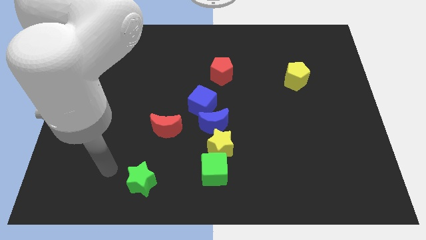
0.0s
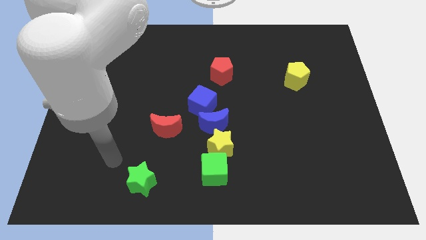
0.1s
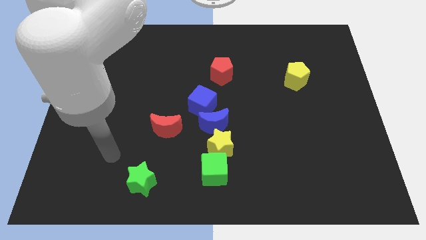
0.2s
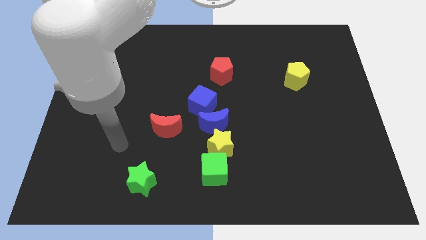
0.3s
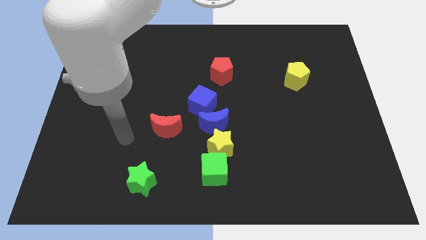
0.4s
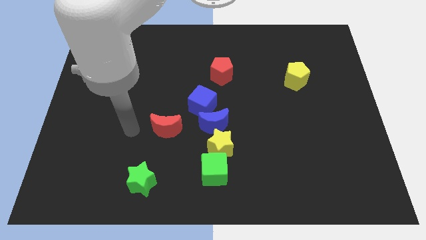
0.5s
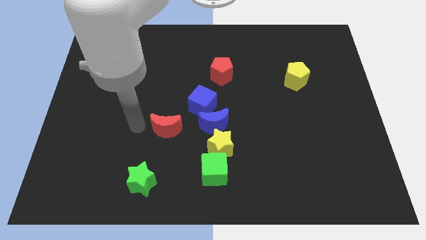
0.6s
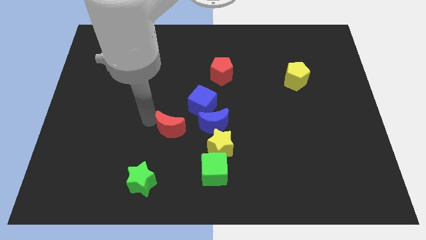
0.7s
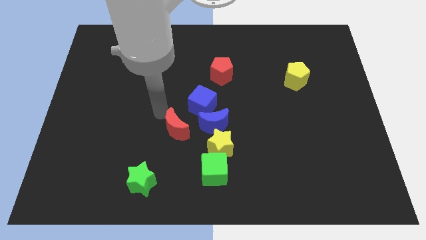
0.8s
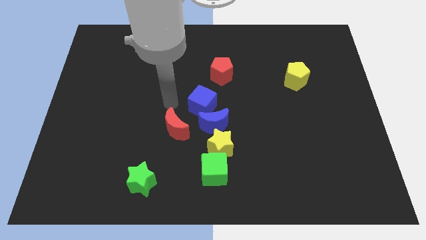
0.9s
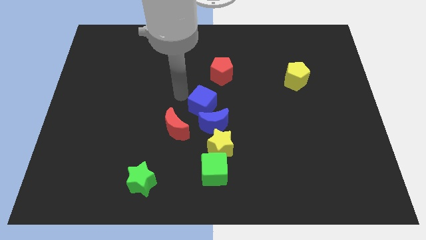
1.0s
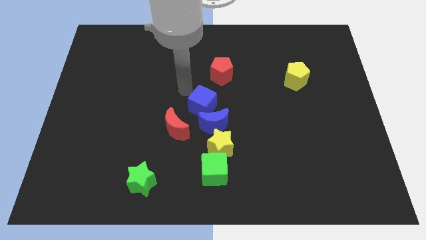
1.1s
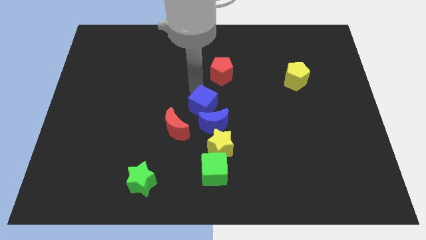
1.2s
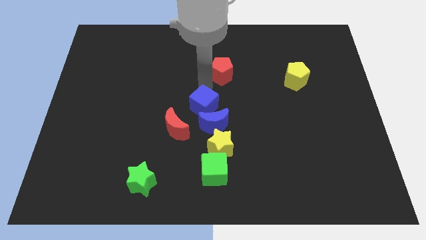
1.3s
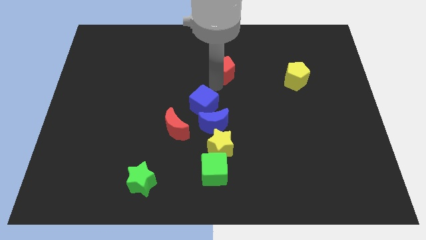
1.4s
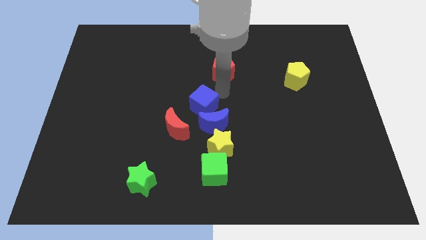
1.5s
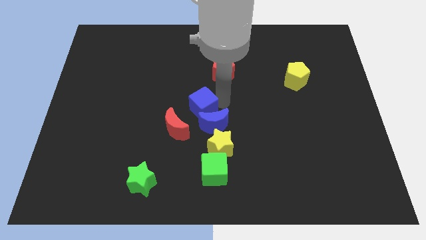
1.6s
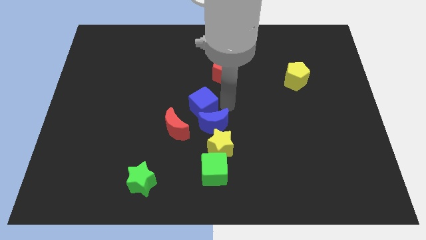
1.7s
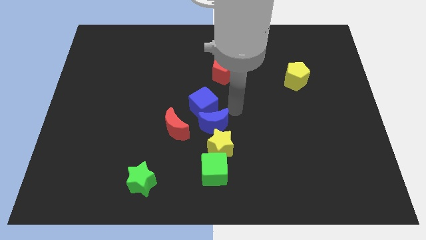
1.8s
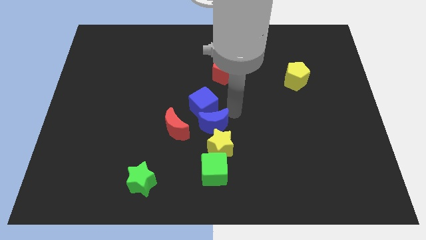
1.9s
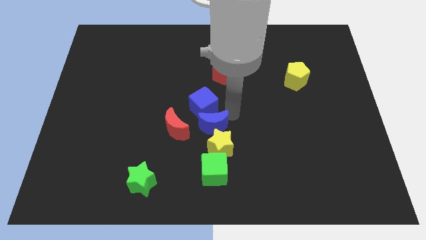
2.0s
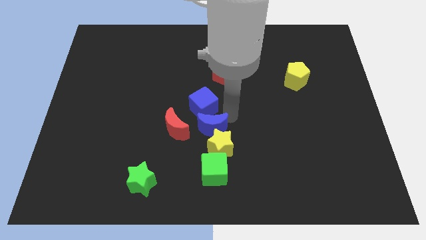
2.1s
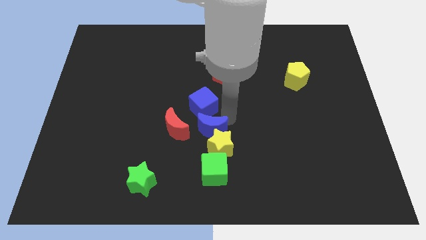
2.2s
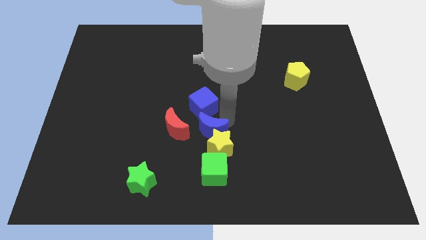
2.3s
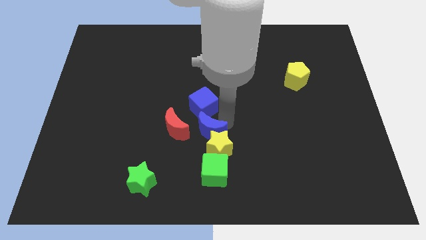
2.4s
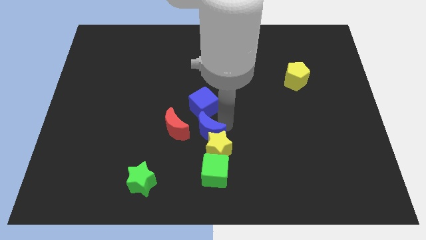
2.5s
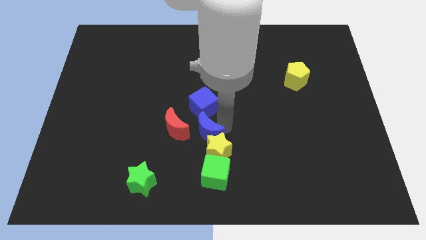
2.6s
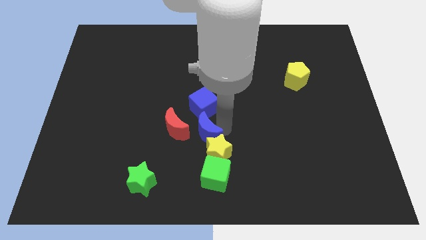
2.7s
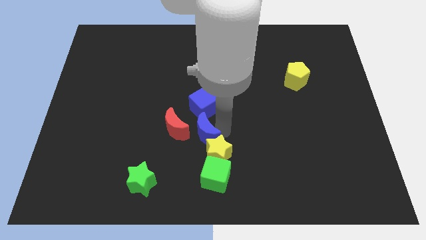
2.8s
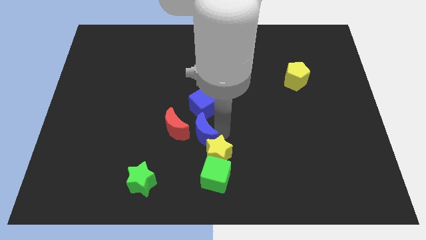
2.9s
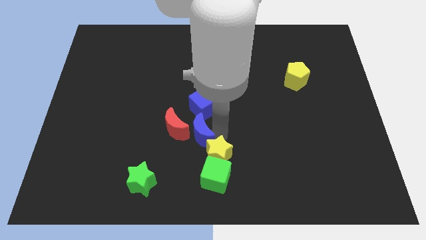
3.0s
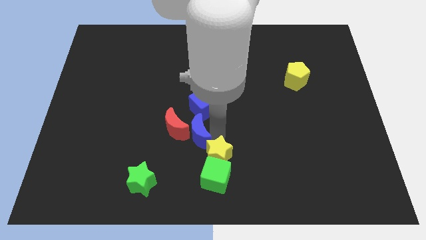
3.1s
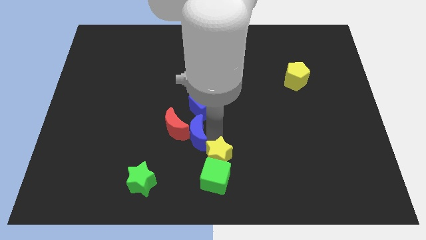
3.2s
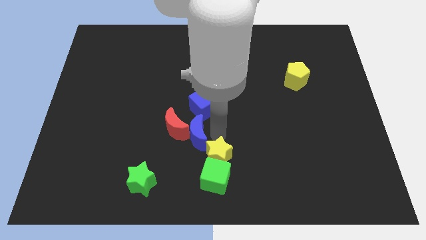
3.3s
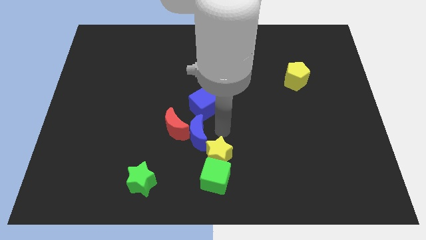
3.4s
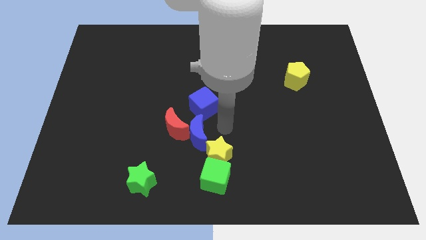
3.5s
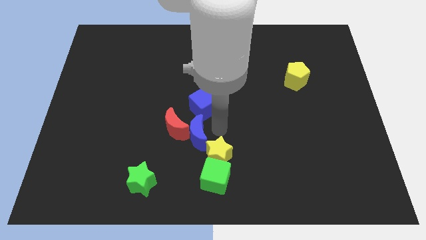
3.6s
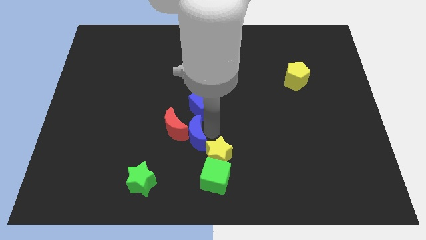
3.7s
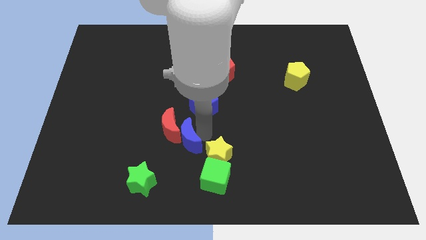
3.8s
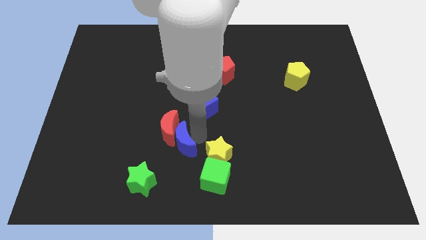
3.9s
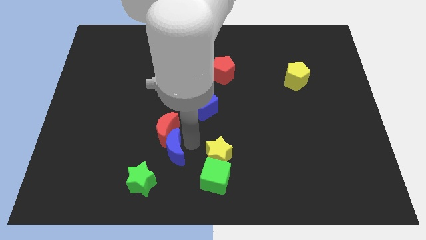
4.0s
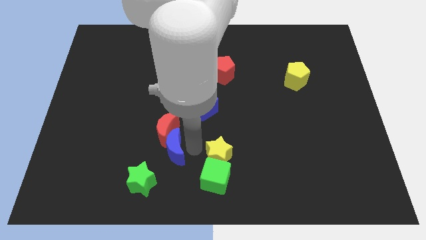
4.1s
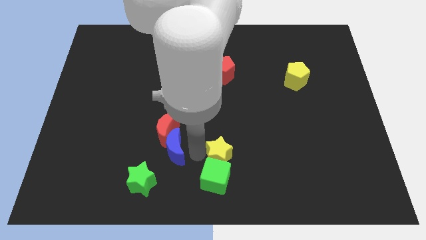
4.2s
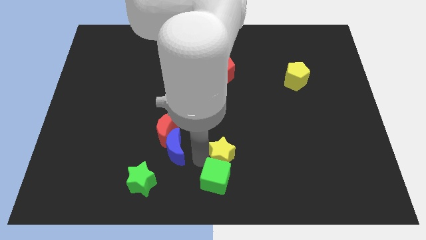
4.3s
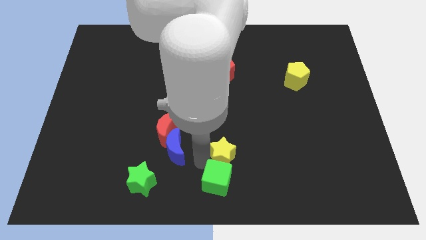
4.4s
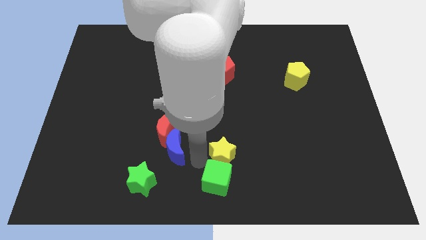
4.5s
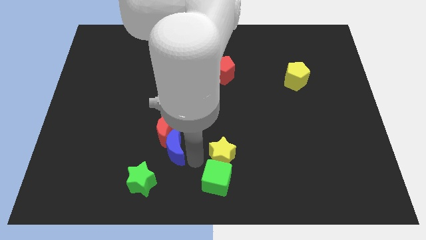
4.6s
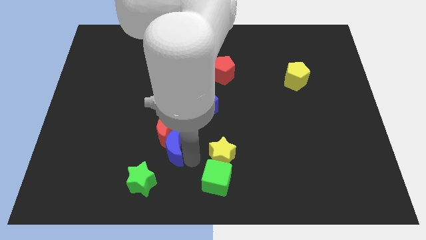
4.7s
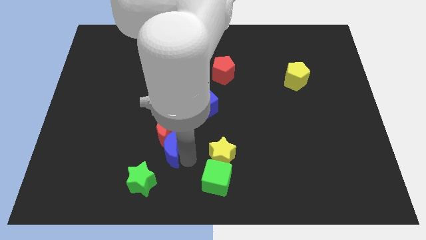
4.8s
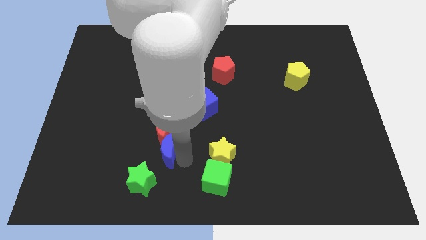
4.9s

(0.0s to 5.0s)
move the blue moon to the top side of the green star

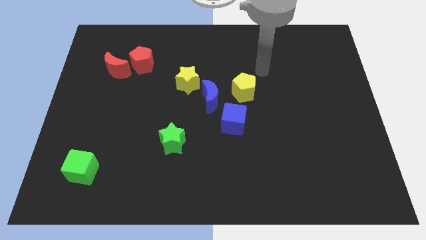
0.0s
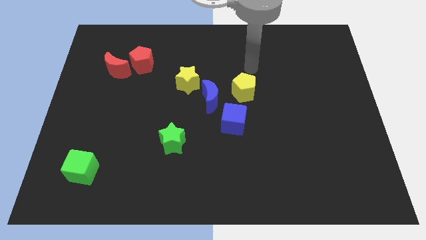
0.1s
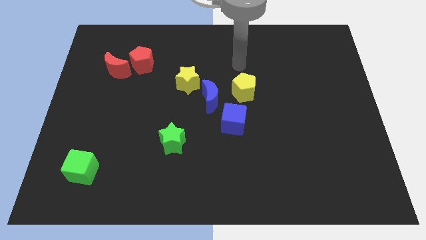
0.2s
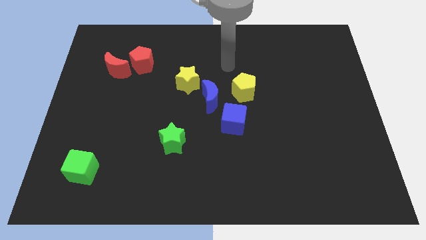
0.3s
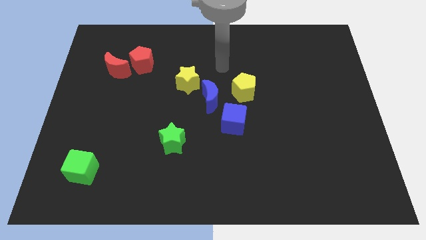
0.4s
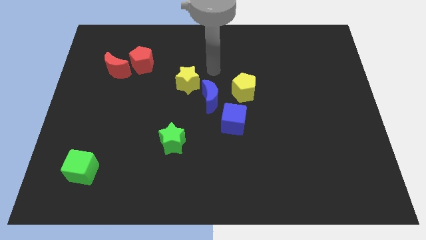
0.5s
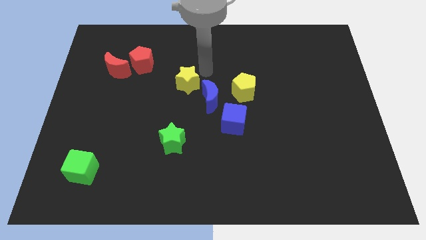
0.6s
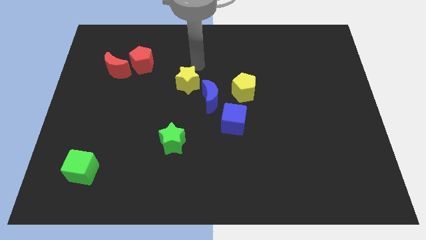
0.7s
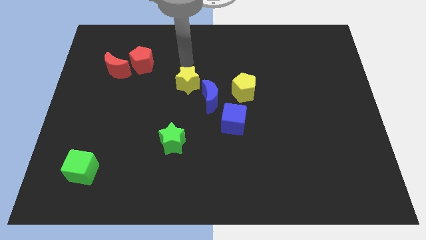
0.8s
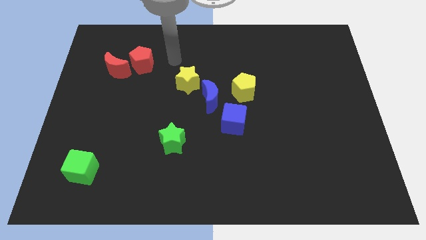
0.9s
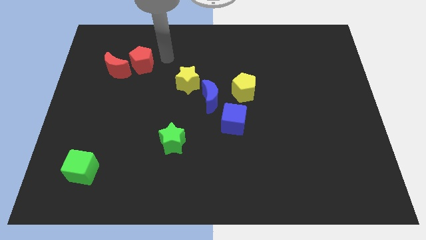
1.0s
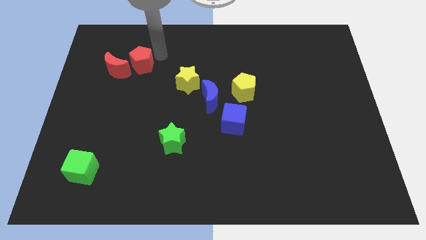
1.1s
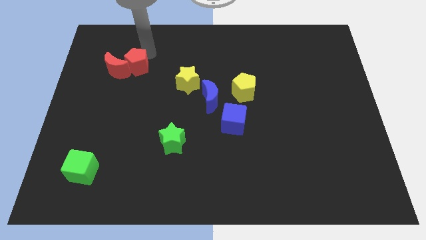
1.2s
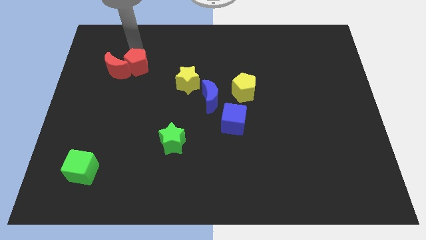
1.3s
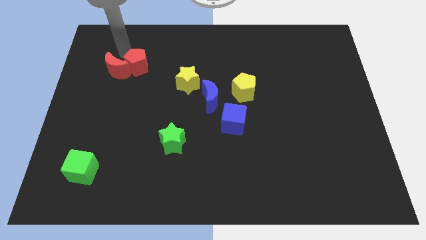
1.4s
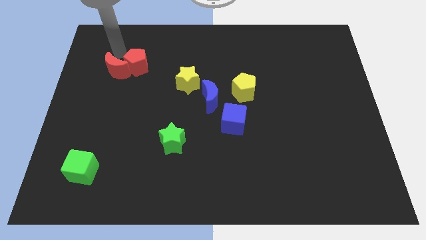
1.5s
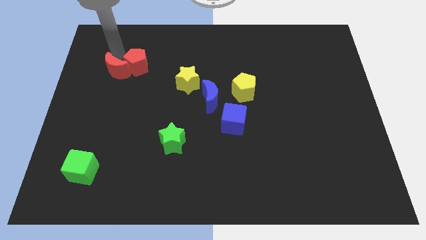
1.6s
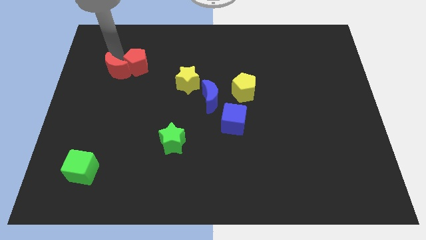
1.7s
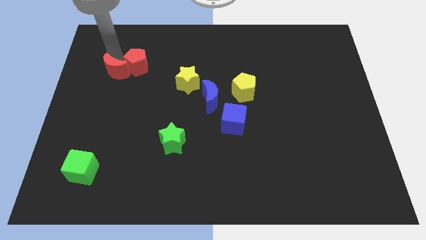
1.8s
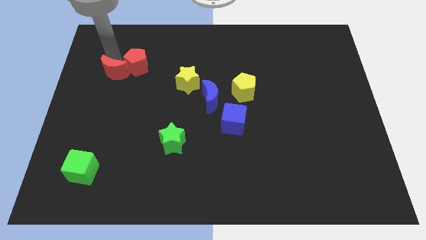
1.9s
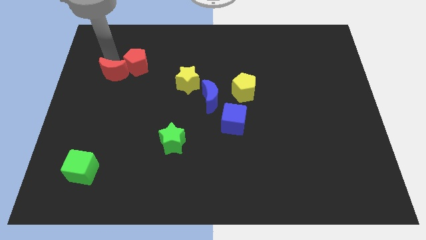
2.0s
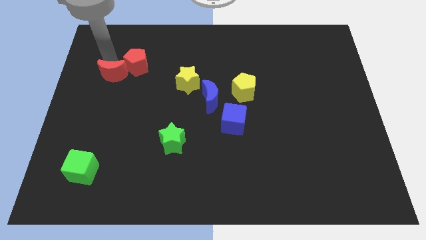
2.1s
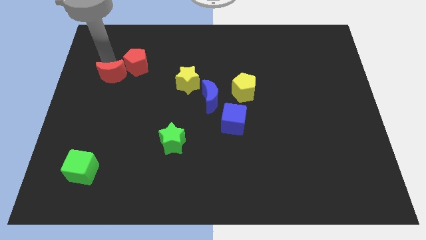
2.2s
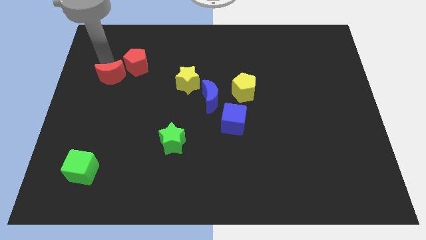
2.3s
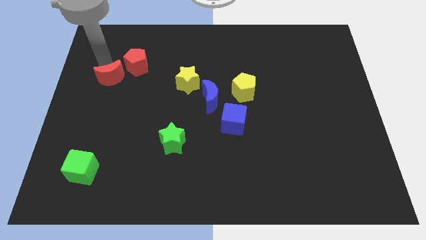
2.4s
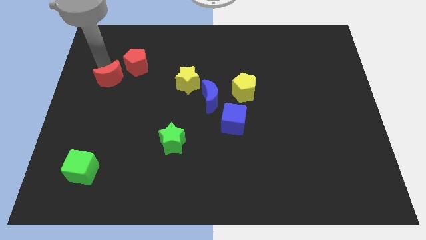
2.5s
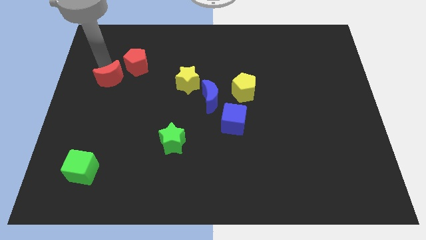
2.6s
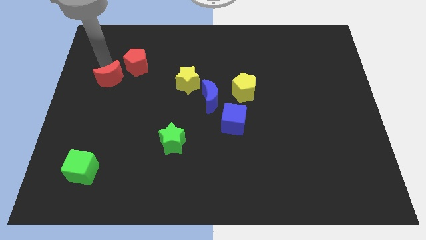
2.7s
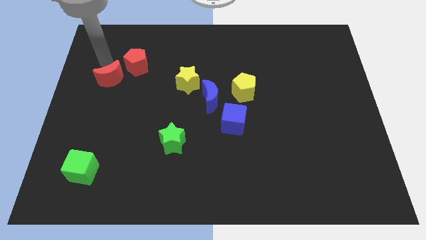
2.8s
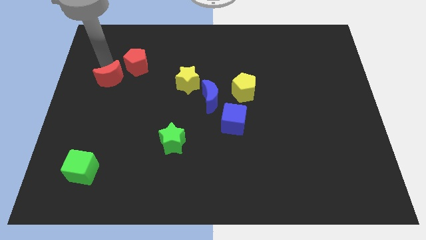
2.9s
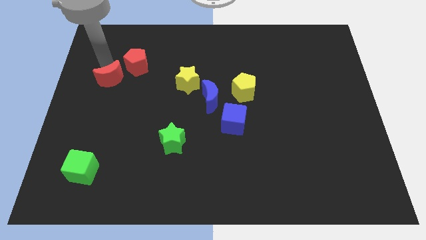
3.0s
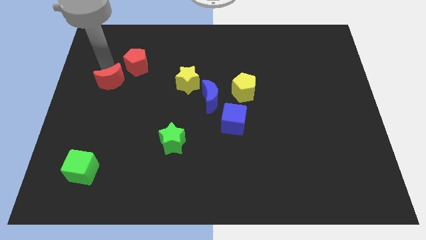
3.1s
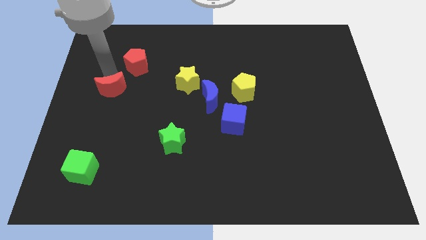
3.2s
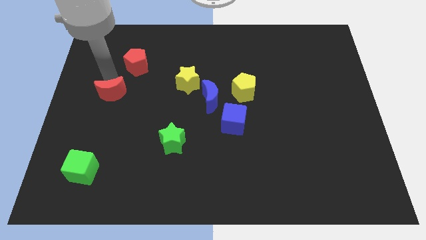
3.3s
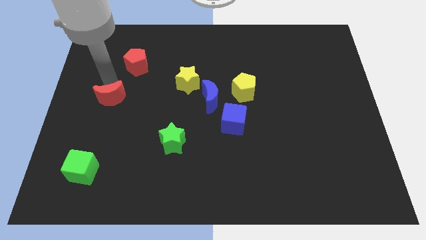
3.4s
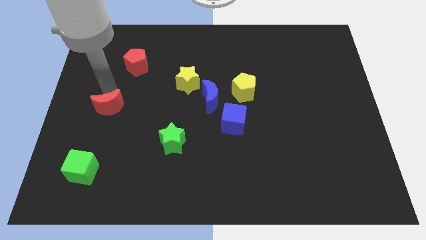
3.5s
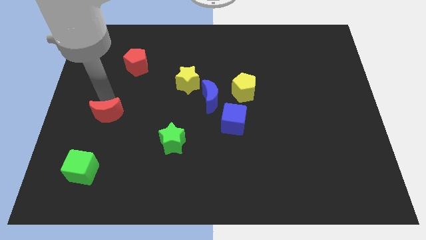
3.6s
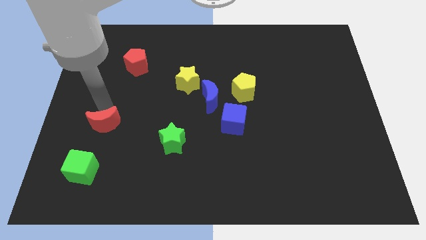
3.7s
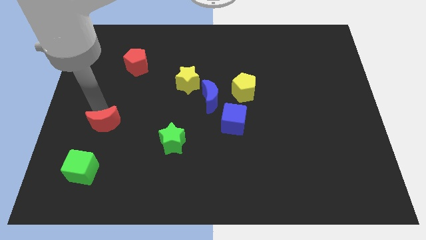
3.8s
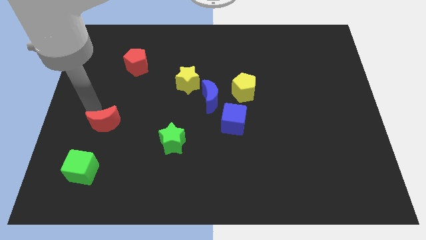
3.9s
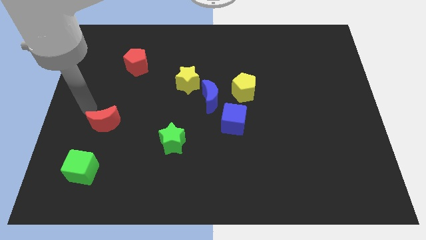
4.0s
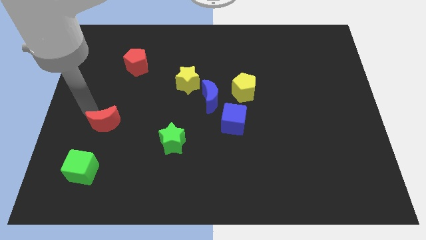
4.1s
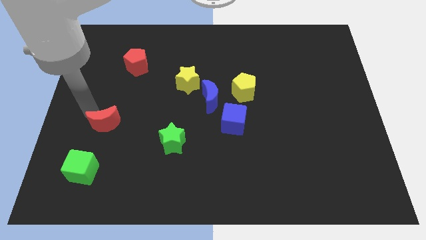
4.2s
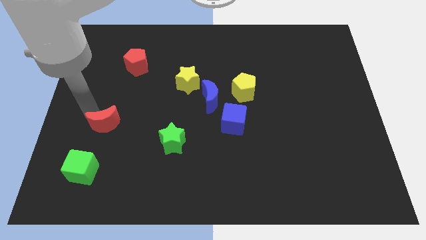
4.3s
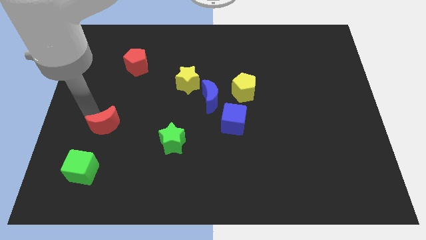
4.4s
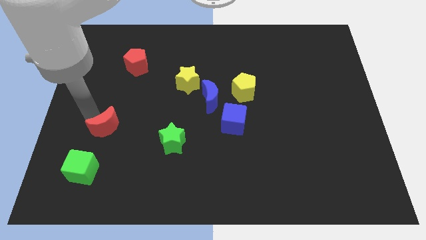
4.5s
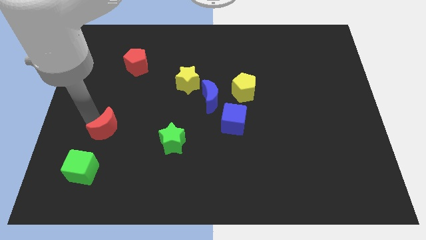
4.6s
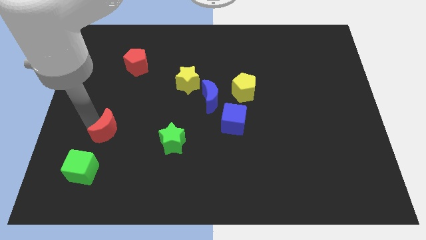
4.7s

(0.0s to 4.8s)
put the red moon to the left of the green star
